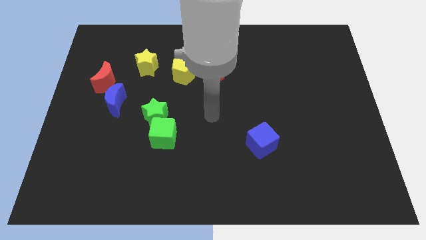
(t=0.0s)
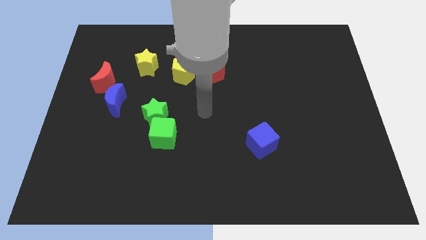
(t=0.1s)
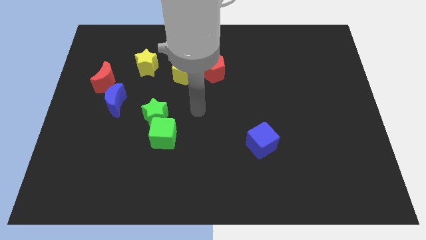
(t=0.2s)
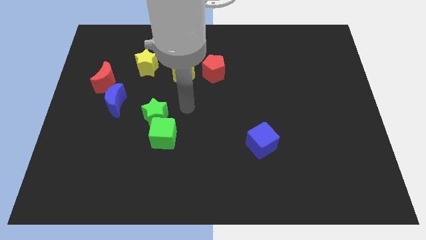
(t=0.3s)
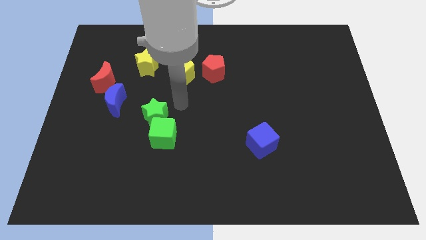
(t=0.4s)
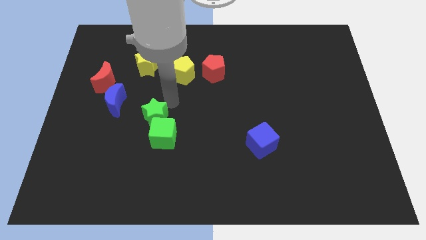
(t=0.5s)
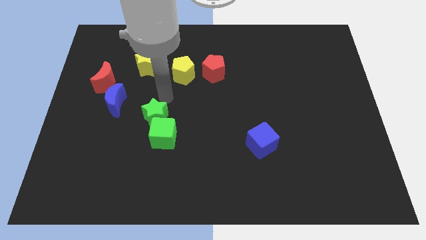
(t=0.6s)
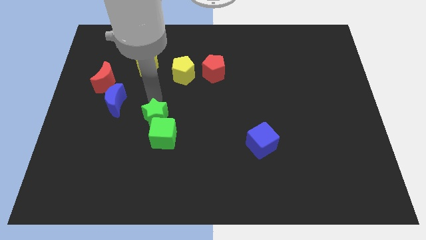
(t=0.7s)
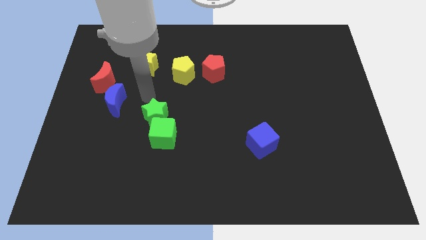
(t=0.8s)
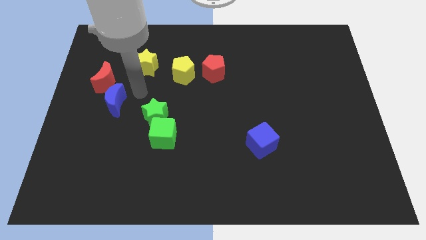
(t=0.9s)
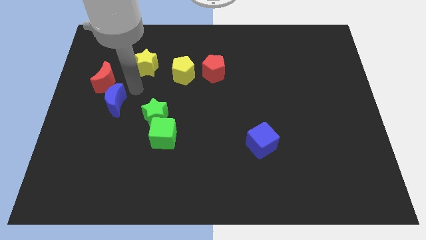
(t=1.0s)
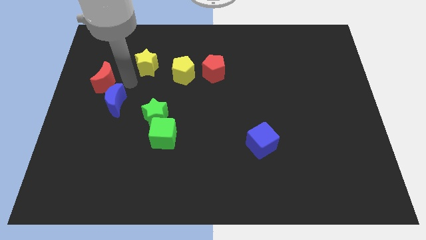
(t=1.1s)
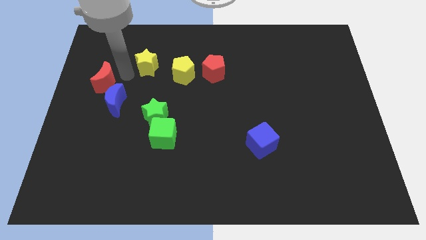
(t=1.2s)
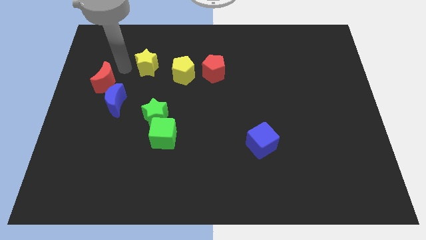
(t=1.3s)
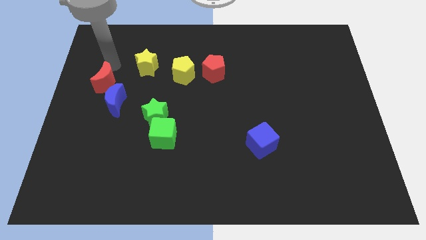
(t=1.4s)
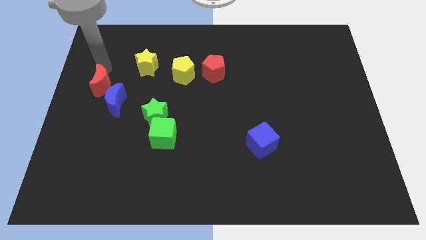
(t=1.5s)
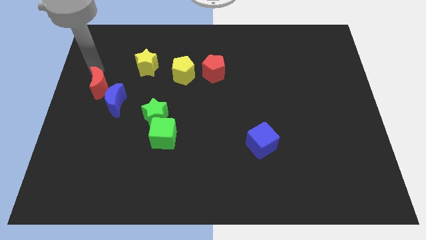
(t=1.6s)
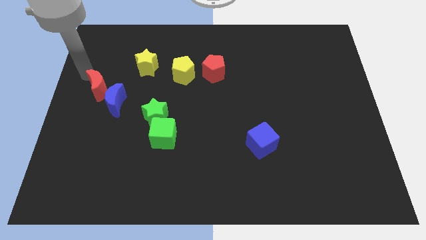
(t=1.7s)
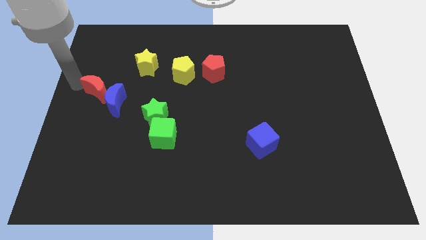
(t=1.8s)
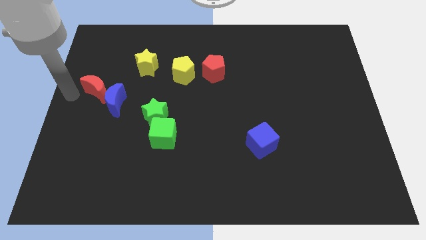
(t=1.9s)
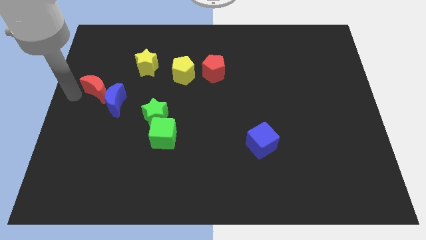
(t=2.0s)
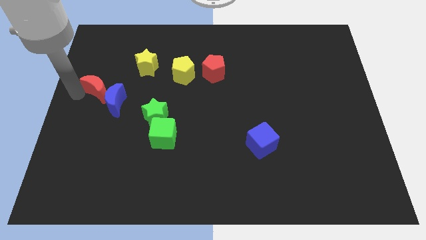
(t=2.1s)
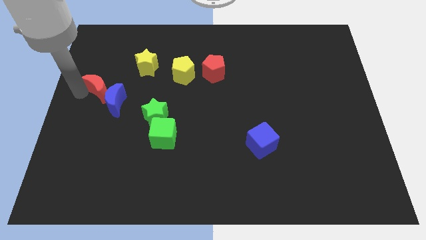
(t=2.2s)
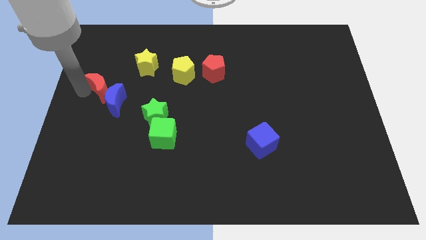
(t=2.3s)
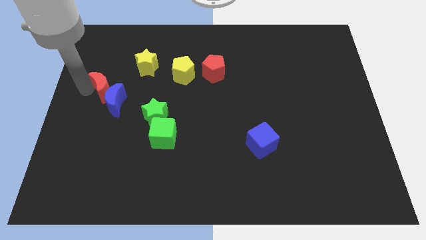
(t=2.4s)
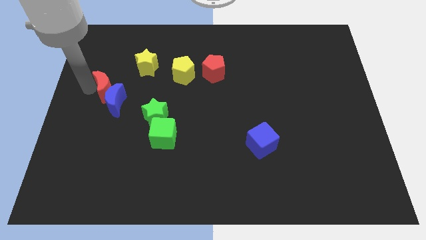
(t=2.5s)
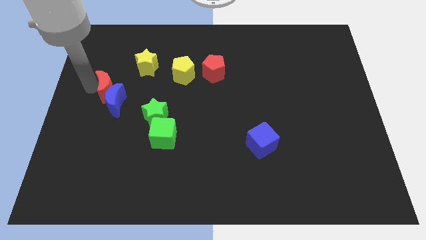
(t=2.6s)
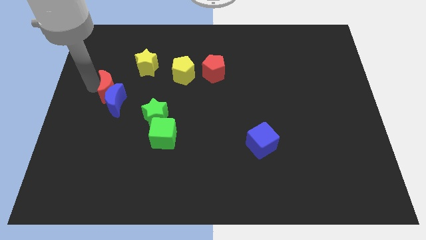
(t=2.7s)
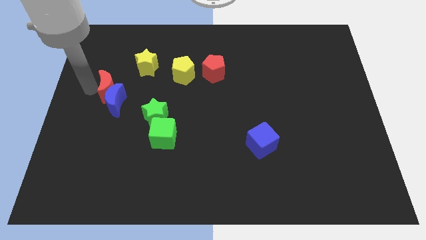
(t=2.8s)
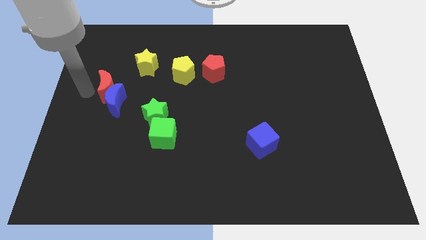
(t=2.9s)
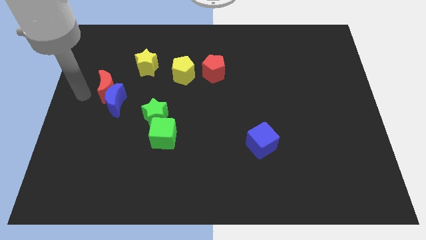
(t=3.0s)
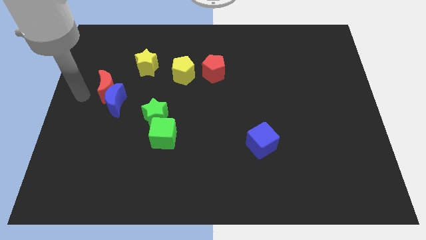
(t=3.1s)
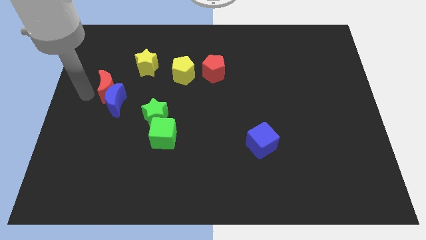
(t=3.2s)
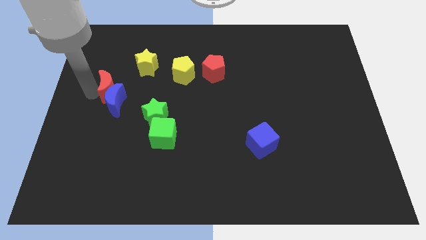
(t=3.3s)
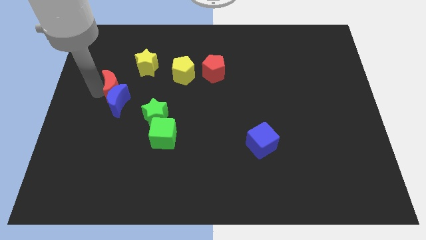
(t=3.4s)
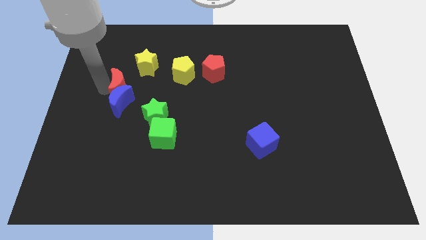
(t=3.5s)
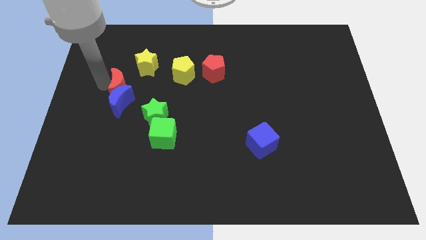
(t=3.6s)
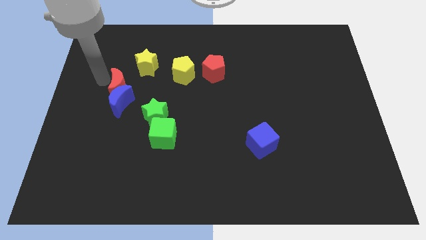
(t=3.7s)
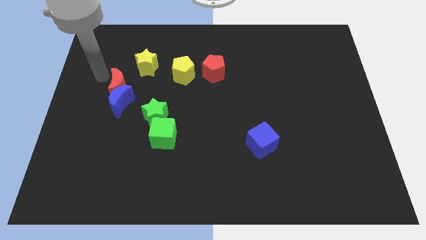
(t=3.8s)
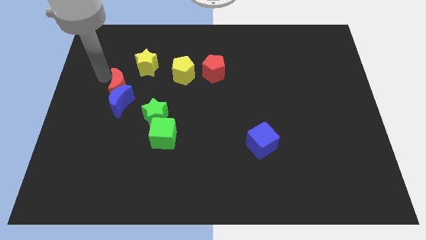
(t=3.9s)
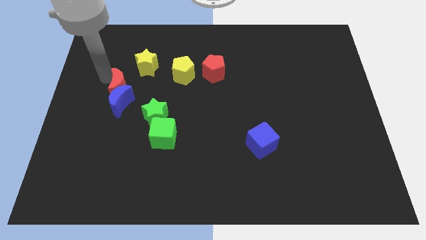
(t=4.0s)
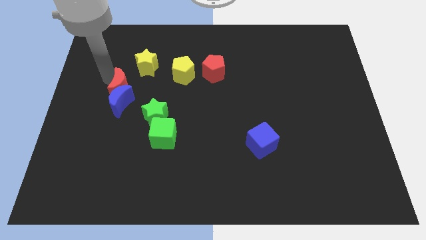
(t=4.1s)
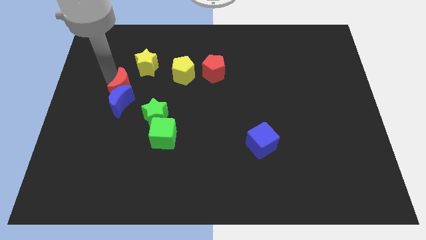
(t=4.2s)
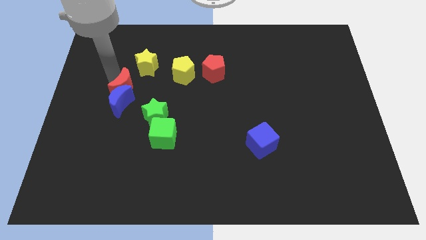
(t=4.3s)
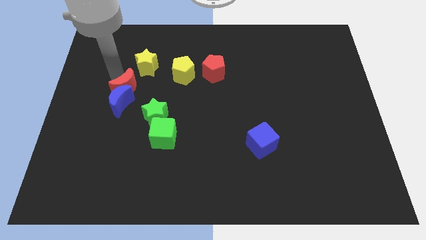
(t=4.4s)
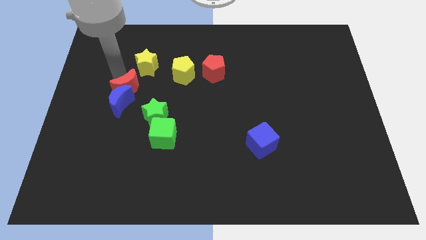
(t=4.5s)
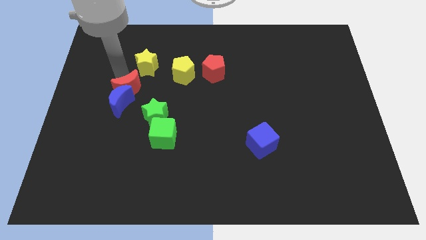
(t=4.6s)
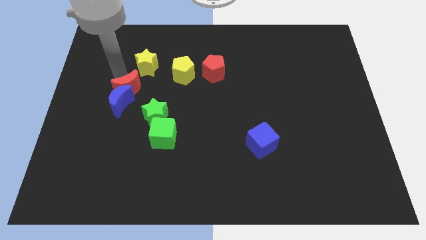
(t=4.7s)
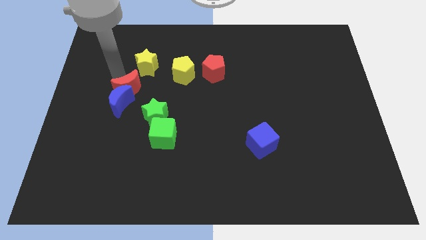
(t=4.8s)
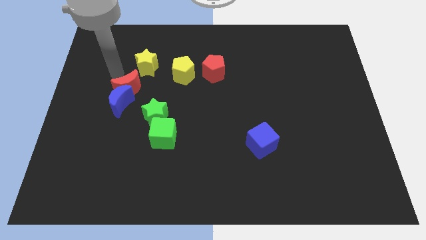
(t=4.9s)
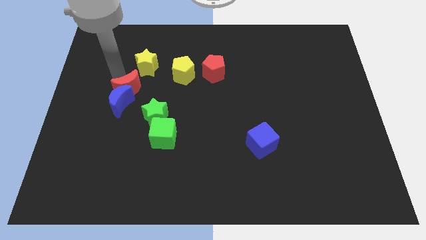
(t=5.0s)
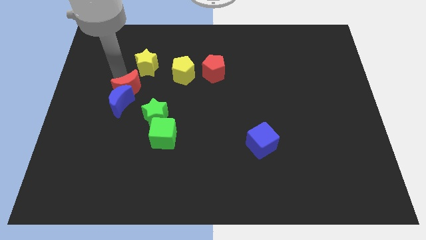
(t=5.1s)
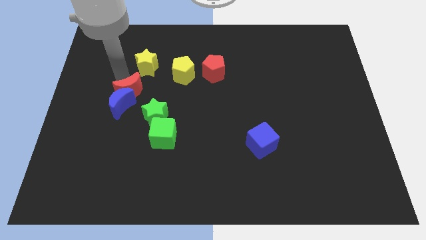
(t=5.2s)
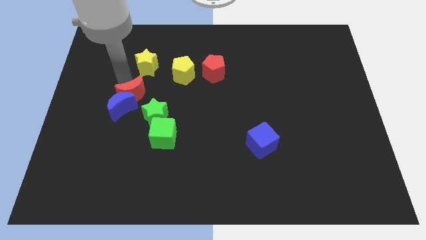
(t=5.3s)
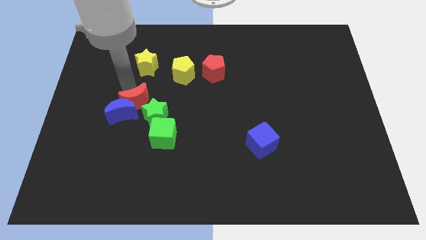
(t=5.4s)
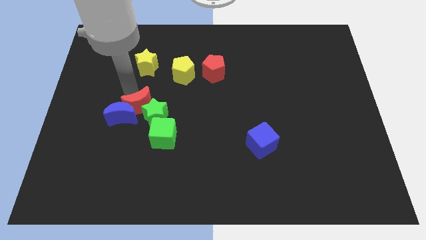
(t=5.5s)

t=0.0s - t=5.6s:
move the red moon towards the green star

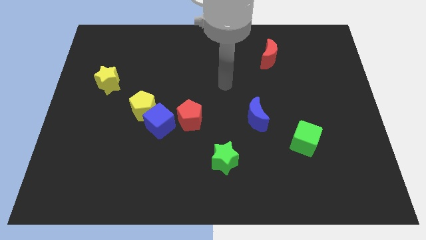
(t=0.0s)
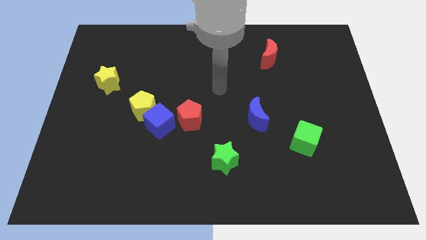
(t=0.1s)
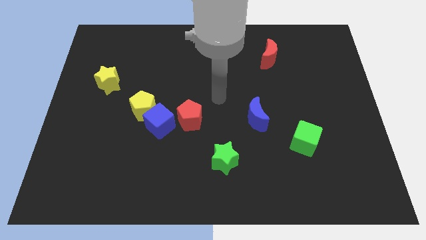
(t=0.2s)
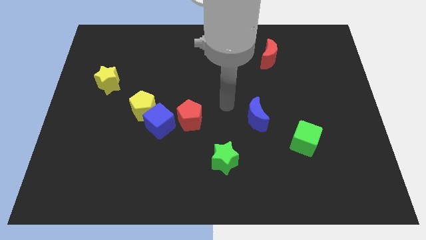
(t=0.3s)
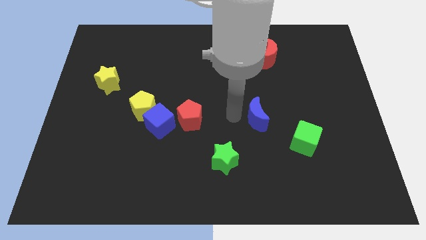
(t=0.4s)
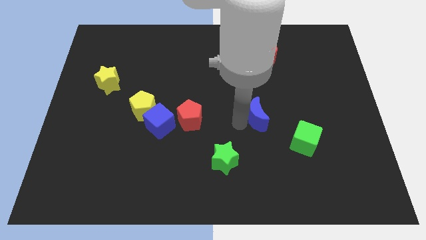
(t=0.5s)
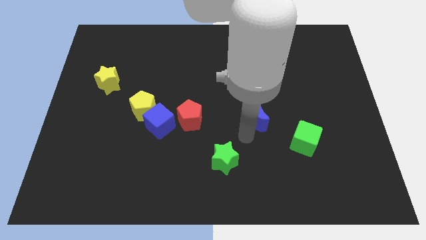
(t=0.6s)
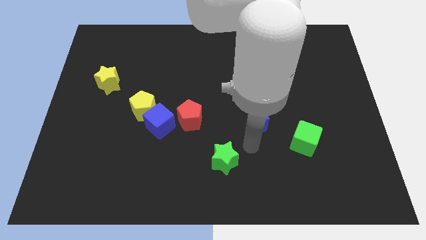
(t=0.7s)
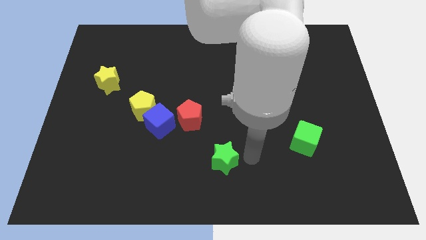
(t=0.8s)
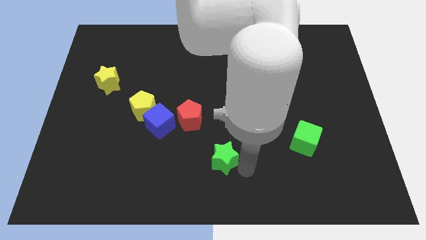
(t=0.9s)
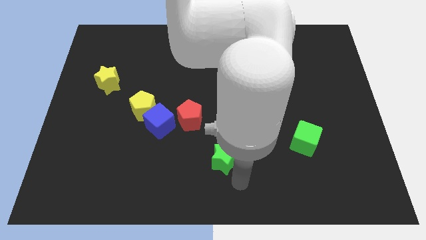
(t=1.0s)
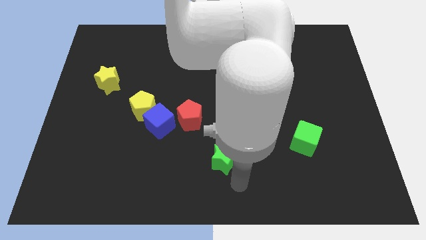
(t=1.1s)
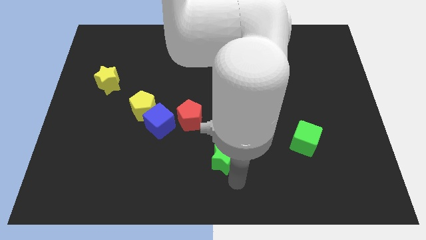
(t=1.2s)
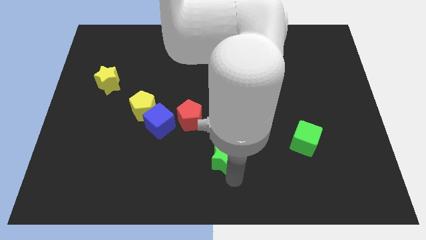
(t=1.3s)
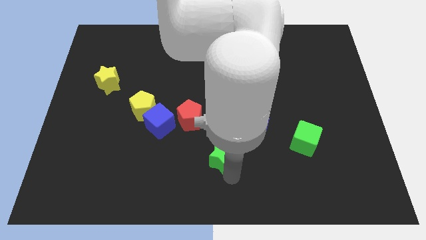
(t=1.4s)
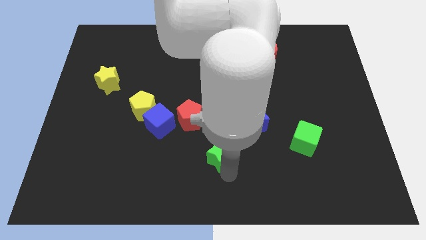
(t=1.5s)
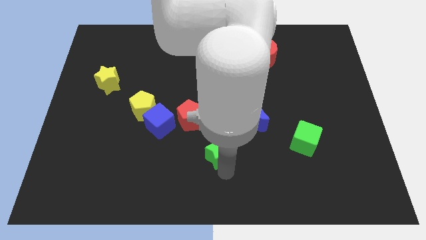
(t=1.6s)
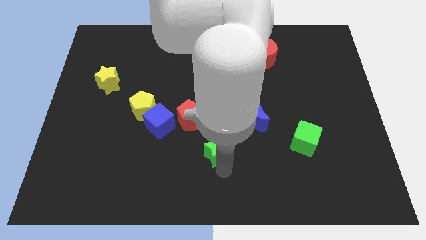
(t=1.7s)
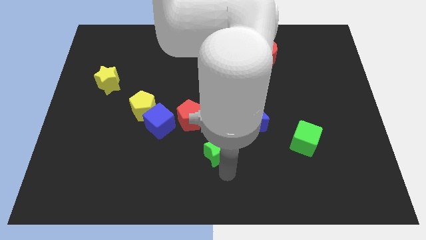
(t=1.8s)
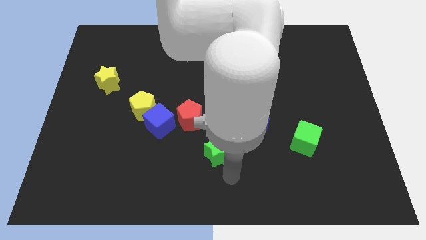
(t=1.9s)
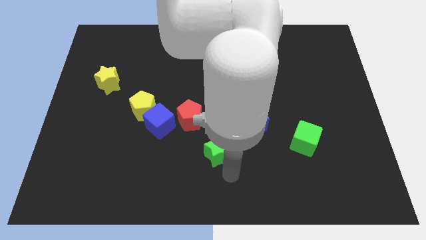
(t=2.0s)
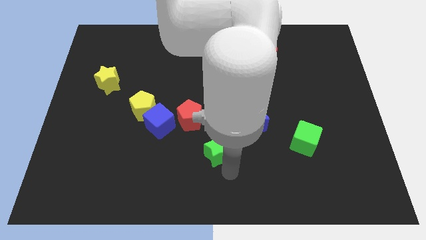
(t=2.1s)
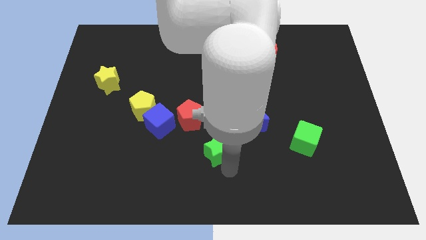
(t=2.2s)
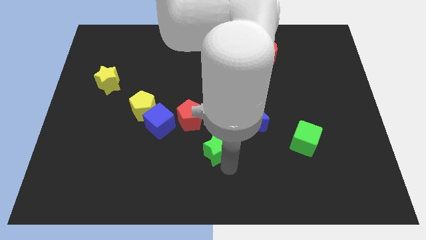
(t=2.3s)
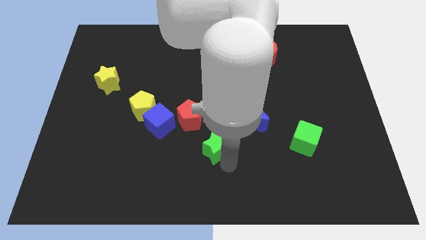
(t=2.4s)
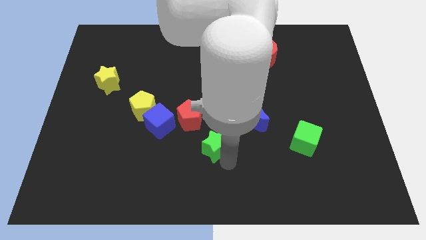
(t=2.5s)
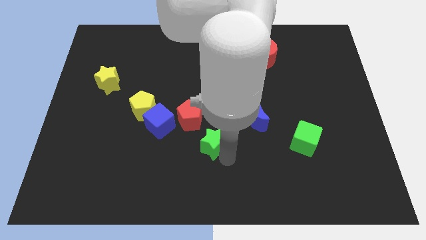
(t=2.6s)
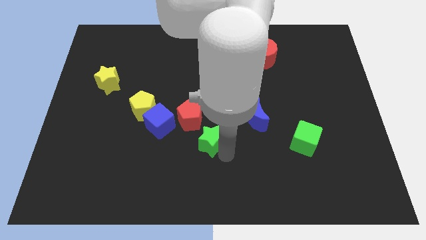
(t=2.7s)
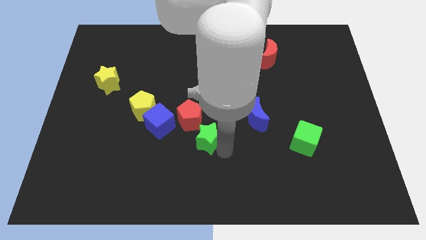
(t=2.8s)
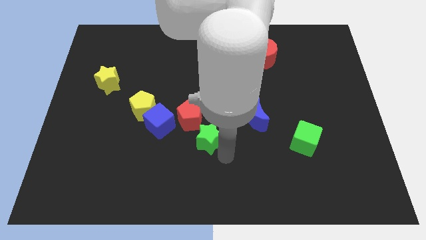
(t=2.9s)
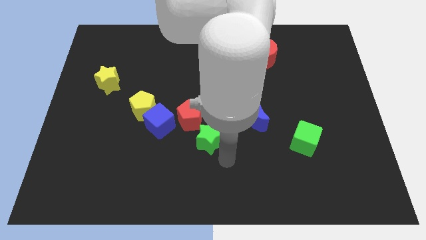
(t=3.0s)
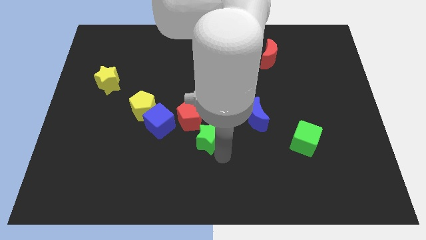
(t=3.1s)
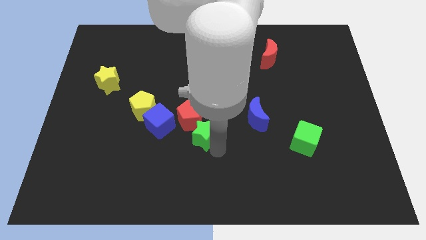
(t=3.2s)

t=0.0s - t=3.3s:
move the green star close to the red pentagon
